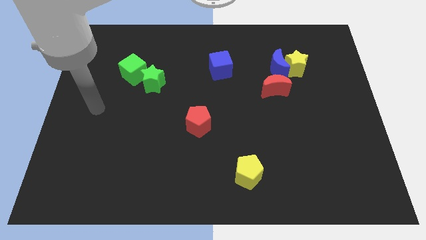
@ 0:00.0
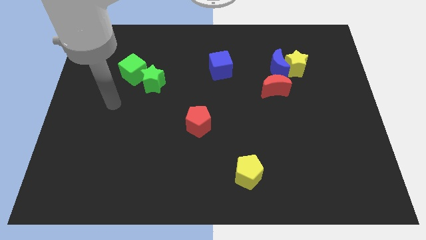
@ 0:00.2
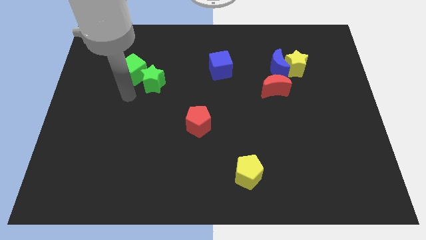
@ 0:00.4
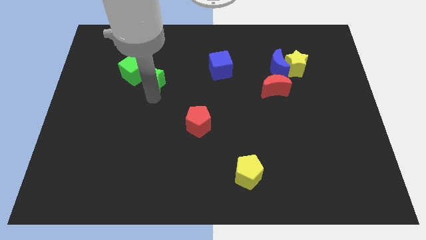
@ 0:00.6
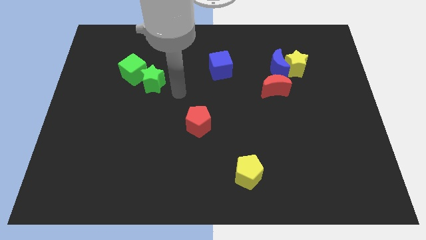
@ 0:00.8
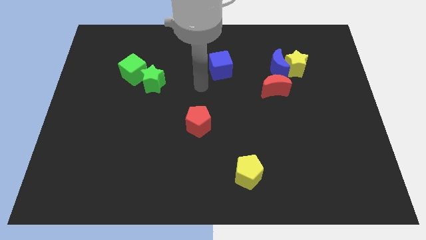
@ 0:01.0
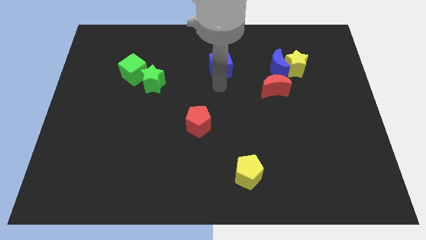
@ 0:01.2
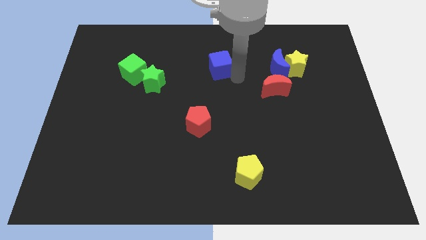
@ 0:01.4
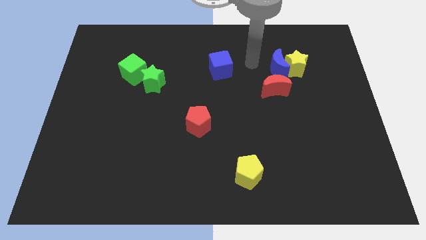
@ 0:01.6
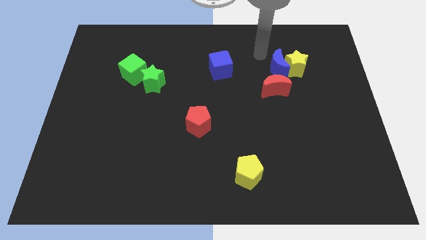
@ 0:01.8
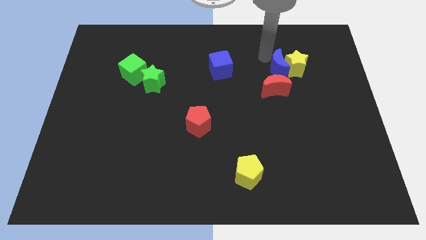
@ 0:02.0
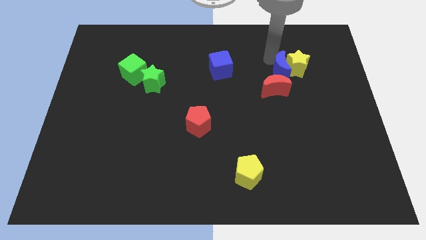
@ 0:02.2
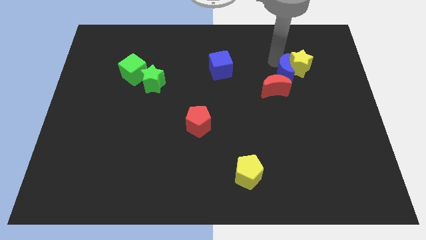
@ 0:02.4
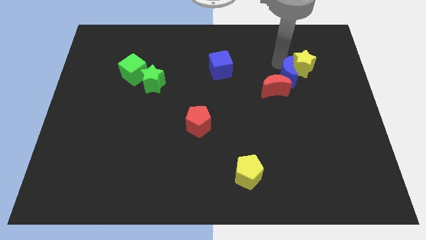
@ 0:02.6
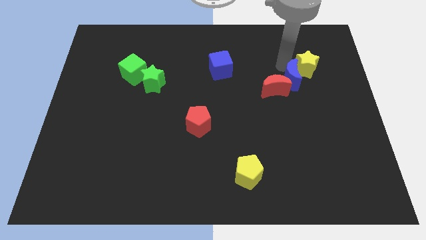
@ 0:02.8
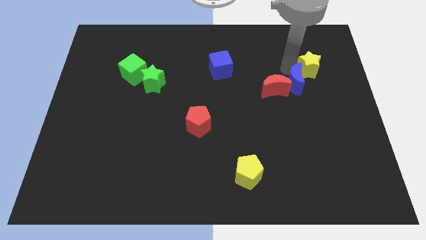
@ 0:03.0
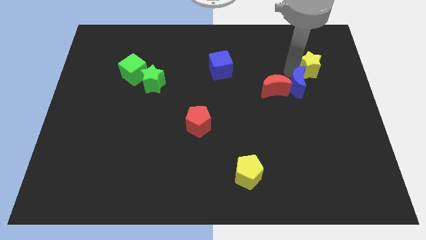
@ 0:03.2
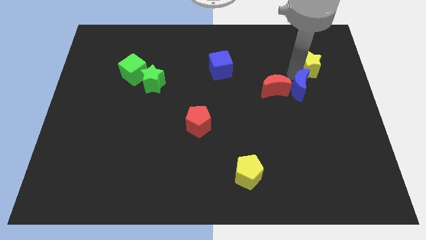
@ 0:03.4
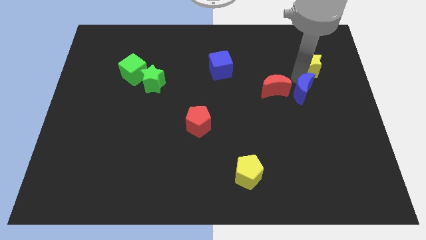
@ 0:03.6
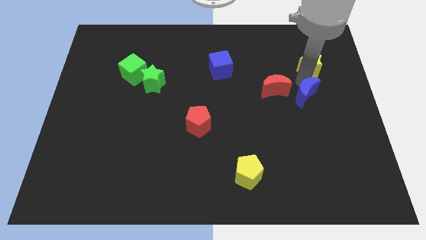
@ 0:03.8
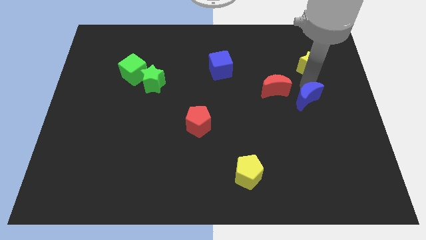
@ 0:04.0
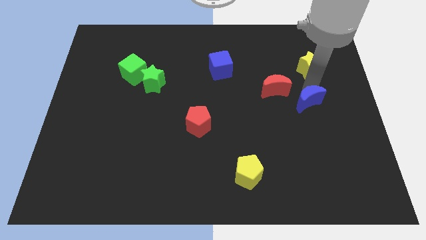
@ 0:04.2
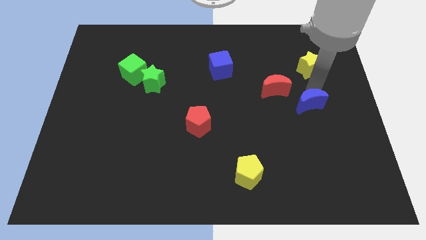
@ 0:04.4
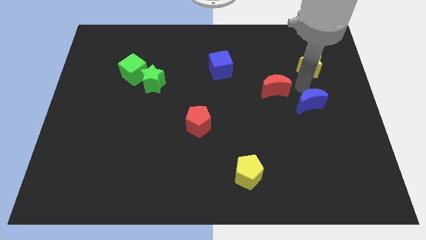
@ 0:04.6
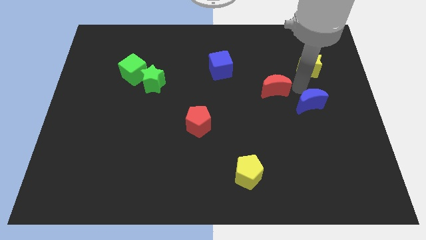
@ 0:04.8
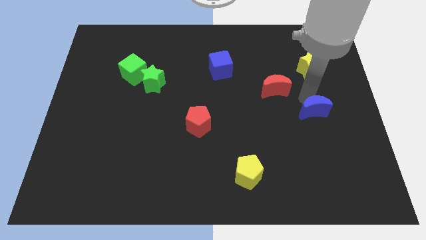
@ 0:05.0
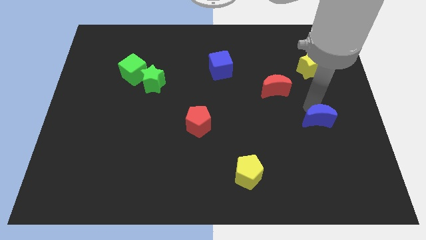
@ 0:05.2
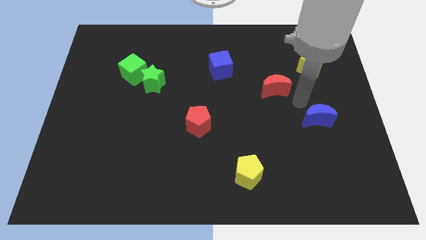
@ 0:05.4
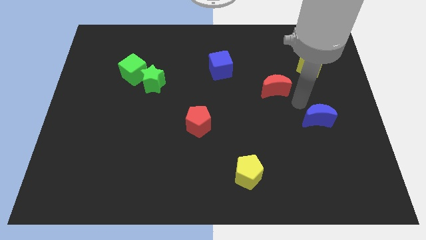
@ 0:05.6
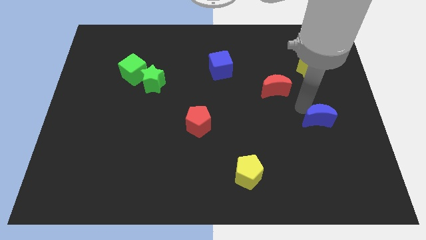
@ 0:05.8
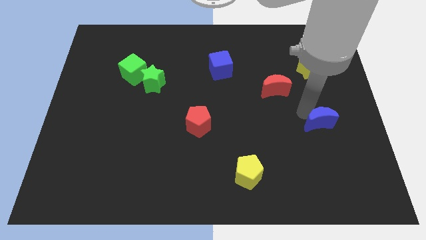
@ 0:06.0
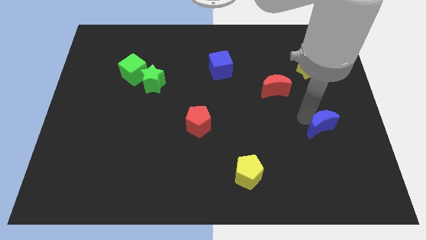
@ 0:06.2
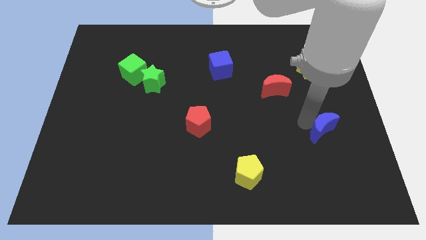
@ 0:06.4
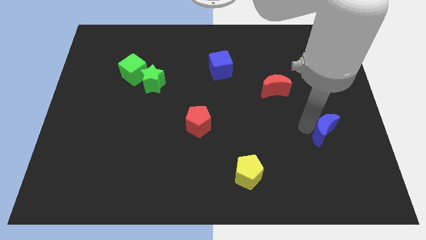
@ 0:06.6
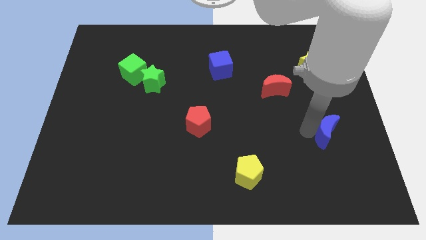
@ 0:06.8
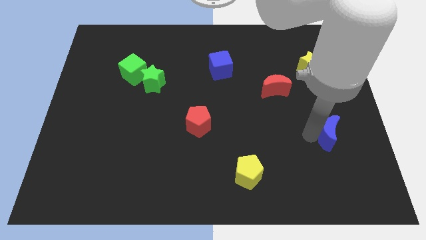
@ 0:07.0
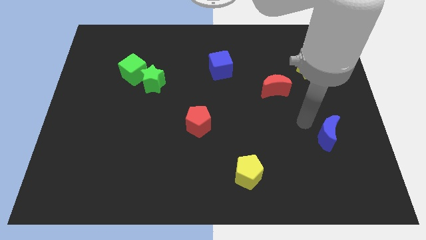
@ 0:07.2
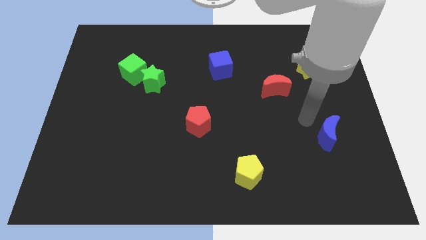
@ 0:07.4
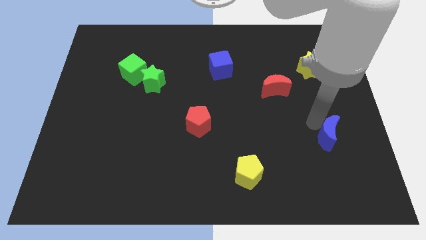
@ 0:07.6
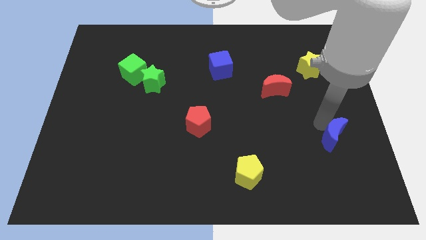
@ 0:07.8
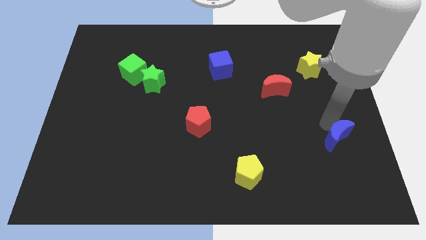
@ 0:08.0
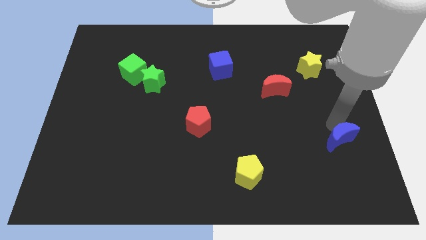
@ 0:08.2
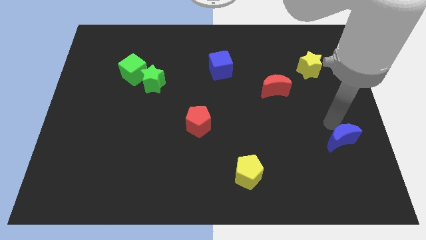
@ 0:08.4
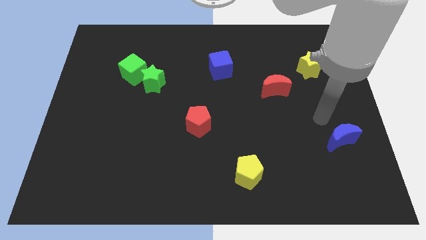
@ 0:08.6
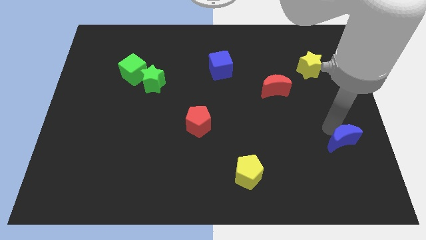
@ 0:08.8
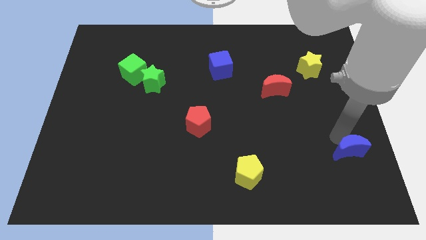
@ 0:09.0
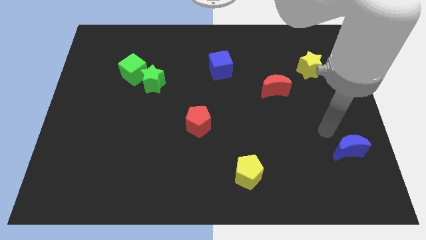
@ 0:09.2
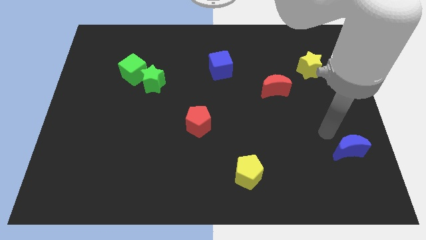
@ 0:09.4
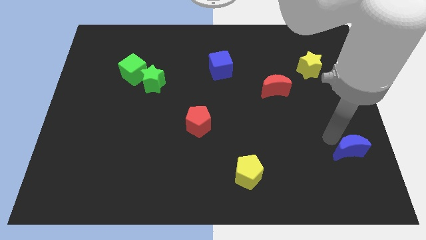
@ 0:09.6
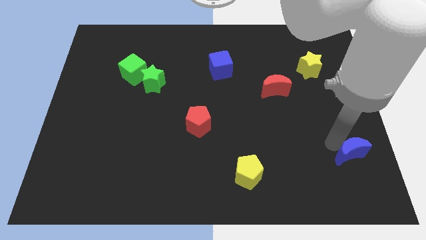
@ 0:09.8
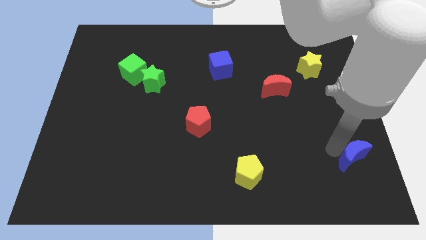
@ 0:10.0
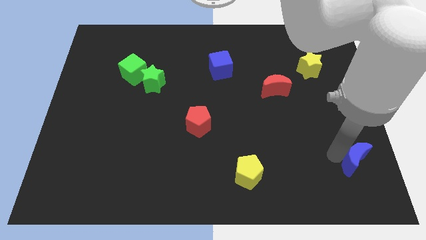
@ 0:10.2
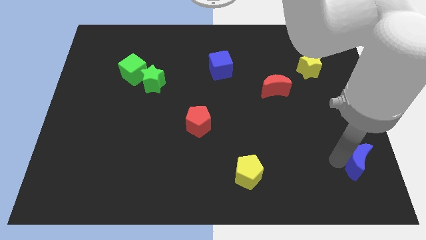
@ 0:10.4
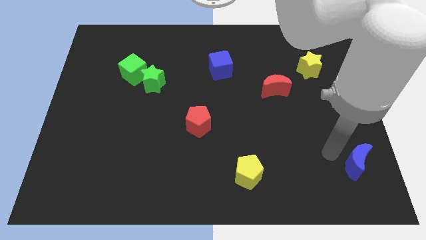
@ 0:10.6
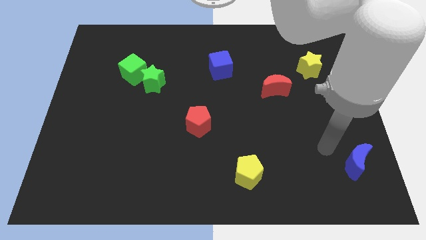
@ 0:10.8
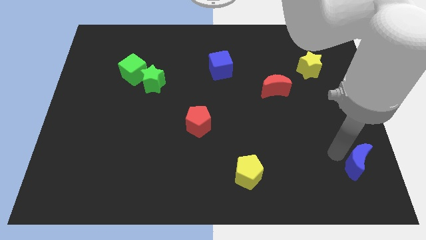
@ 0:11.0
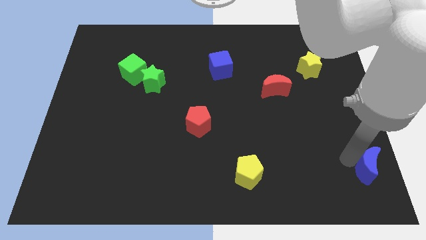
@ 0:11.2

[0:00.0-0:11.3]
slide the blue moon to the lower right corner
